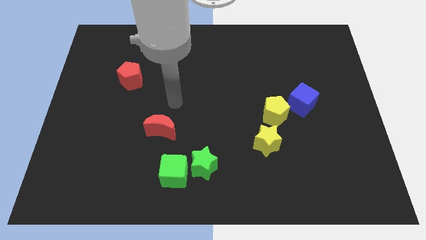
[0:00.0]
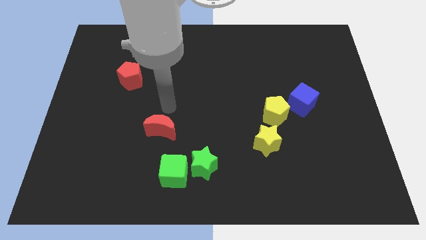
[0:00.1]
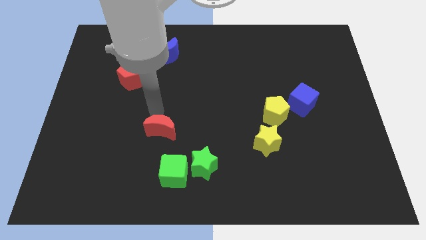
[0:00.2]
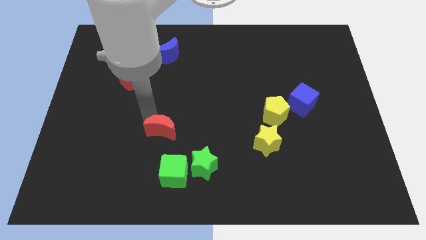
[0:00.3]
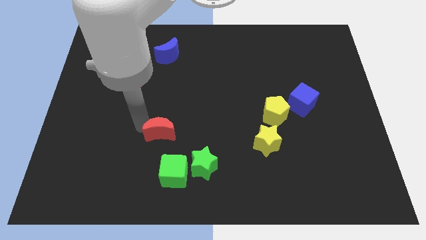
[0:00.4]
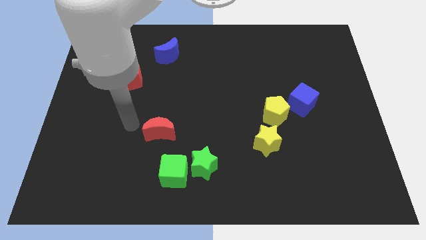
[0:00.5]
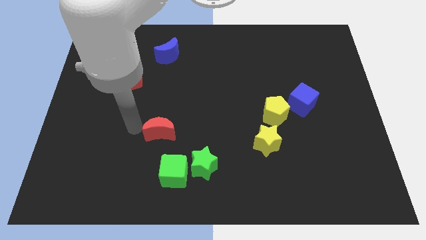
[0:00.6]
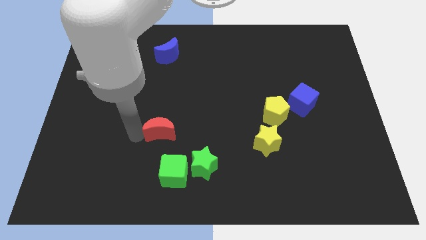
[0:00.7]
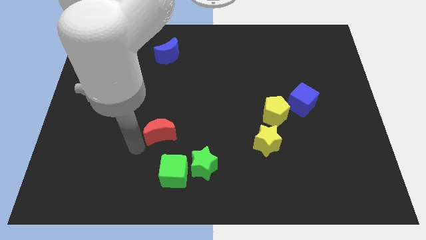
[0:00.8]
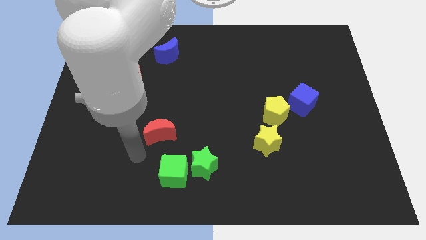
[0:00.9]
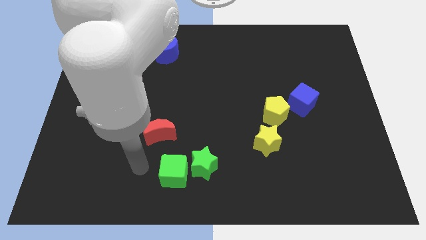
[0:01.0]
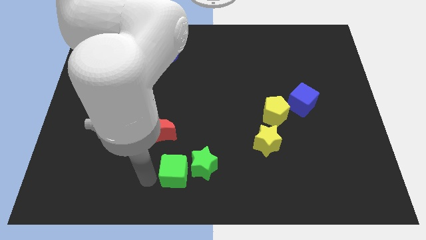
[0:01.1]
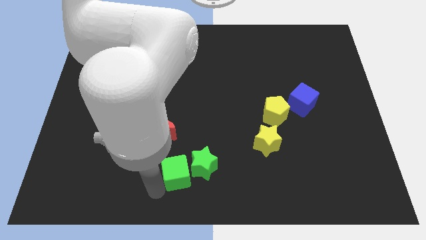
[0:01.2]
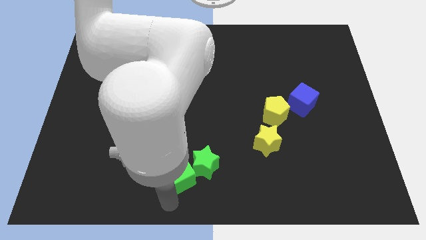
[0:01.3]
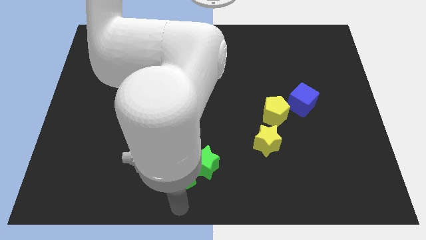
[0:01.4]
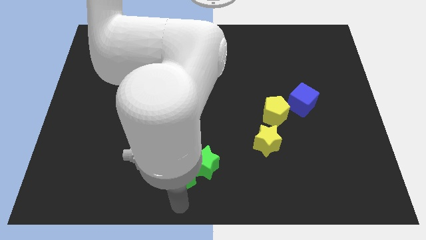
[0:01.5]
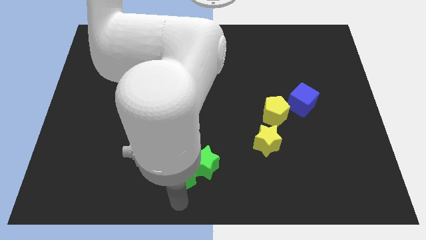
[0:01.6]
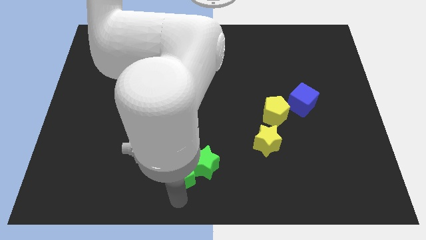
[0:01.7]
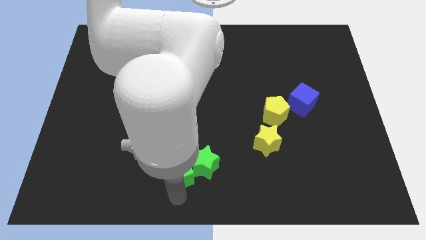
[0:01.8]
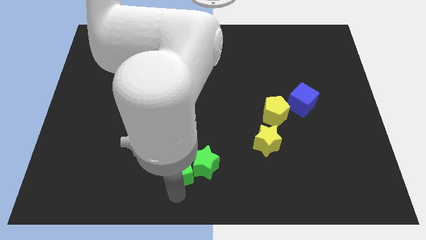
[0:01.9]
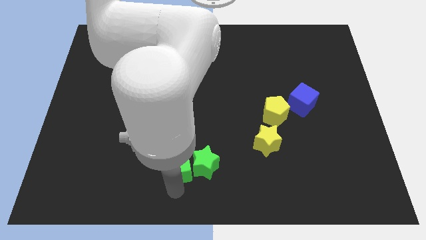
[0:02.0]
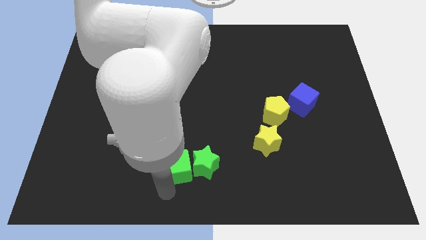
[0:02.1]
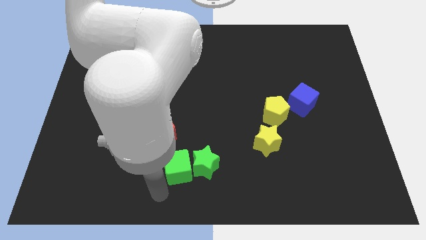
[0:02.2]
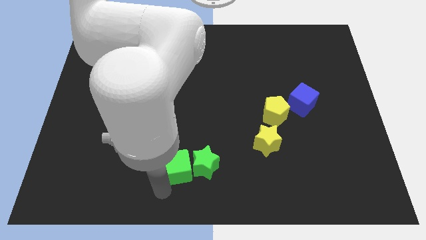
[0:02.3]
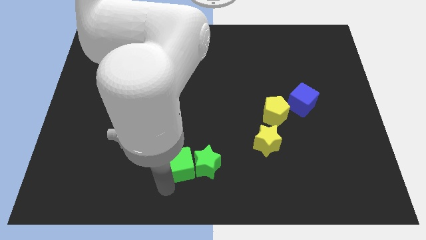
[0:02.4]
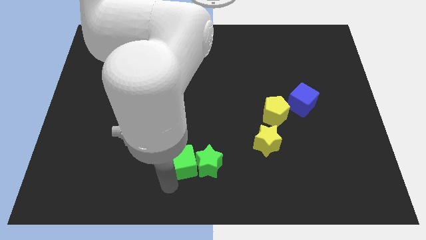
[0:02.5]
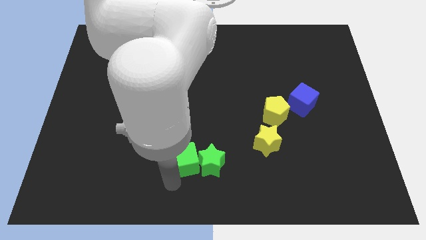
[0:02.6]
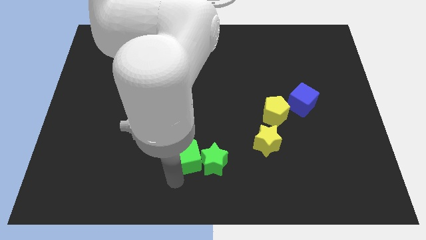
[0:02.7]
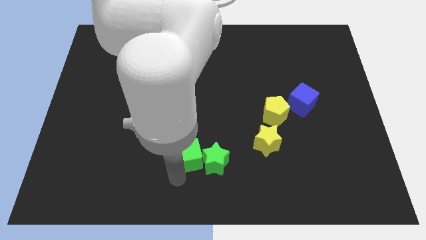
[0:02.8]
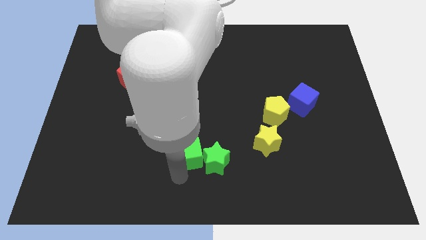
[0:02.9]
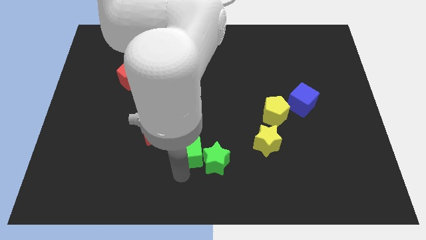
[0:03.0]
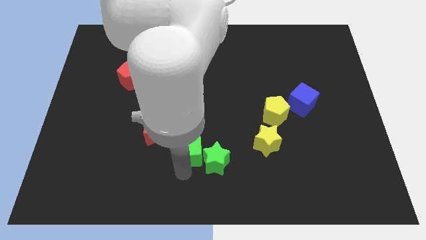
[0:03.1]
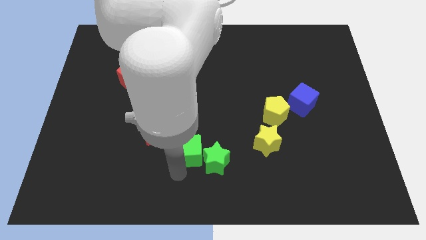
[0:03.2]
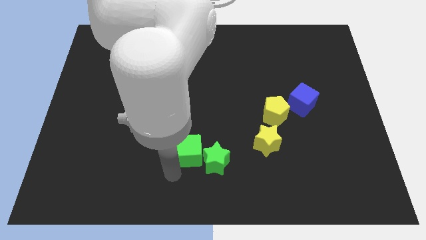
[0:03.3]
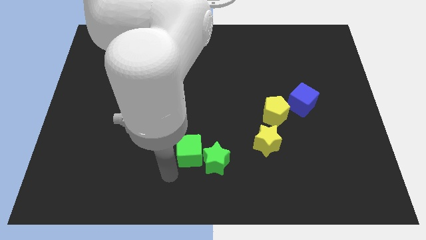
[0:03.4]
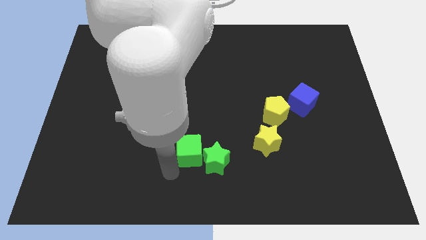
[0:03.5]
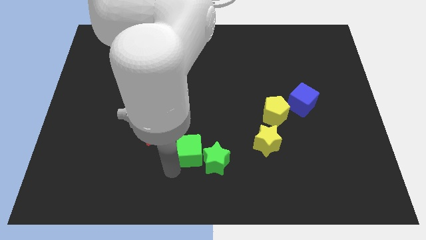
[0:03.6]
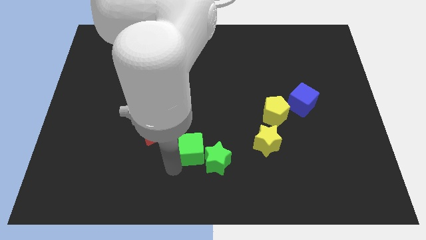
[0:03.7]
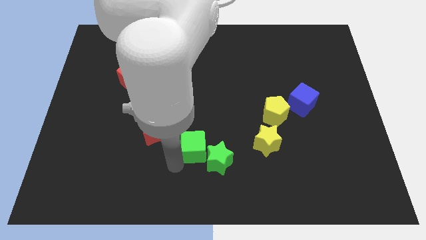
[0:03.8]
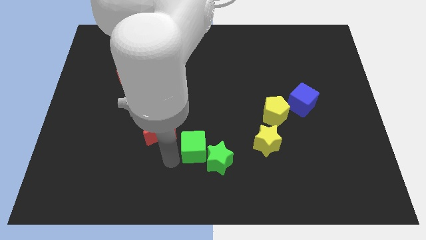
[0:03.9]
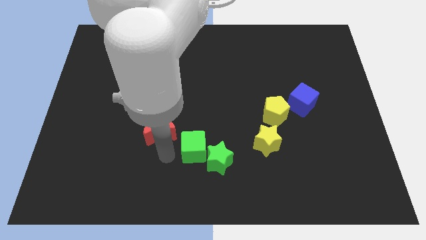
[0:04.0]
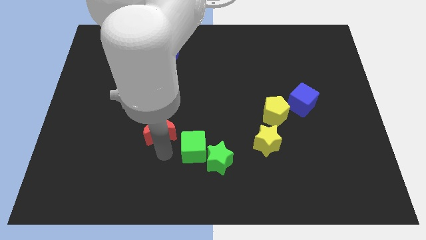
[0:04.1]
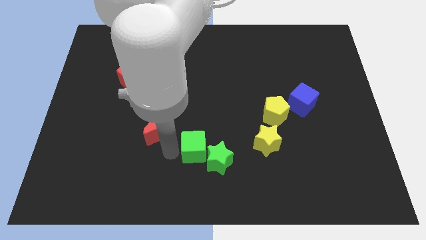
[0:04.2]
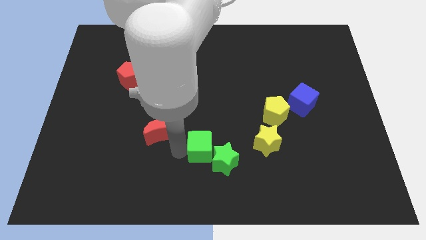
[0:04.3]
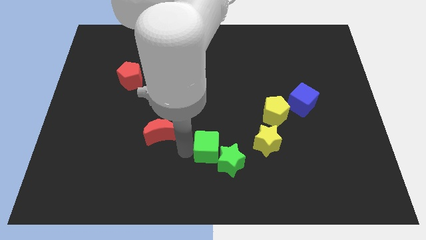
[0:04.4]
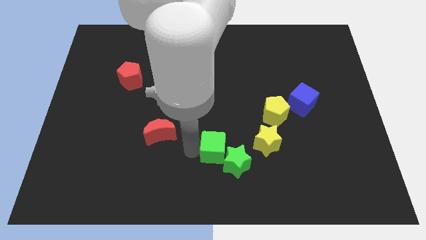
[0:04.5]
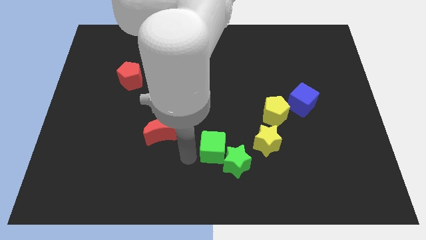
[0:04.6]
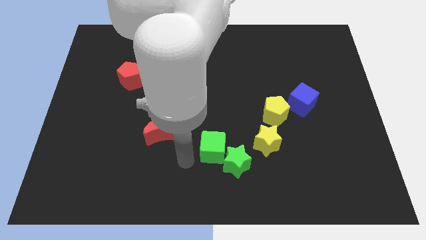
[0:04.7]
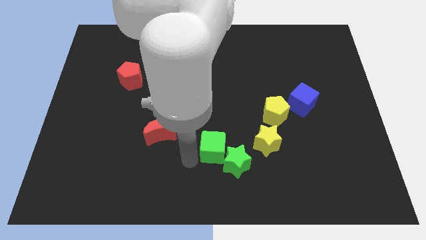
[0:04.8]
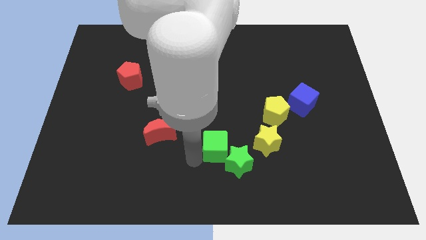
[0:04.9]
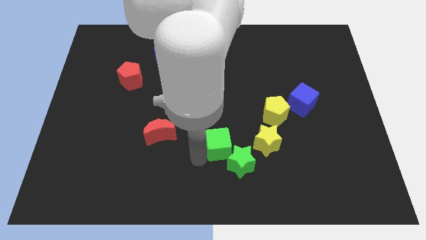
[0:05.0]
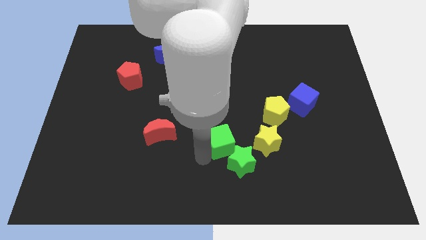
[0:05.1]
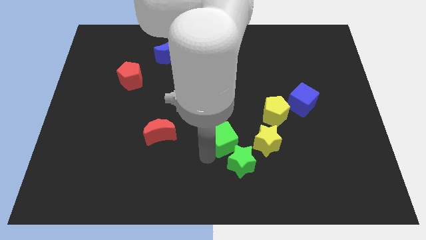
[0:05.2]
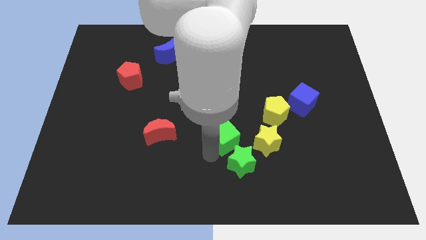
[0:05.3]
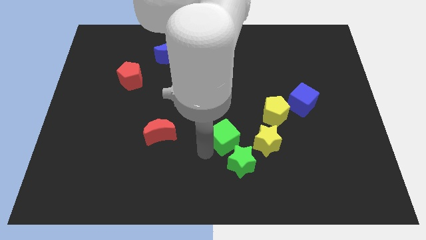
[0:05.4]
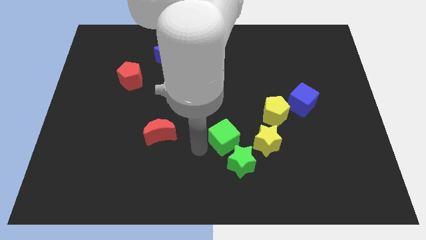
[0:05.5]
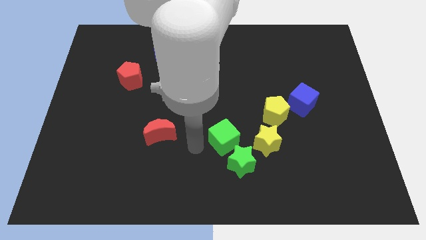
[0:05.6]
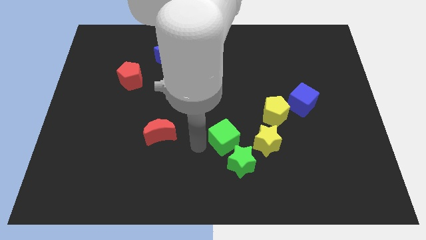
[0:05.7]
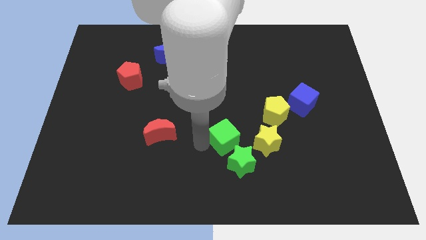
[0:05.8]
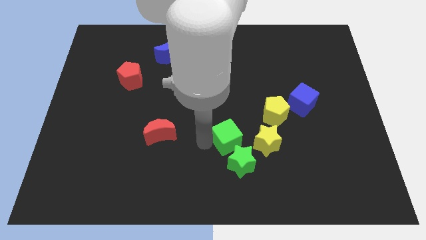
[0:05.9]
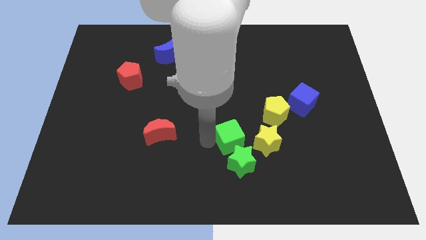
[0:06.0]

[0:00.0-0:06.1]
move the green cube diagonally down and to the left of the yellow pentagon

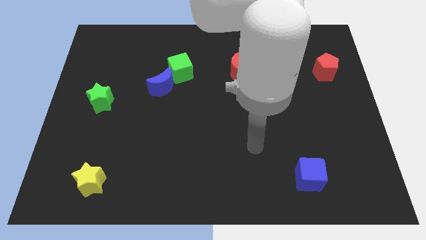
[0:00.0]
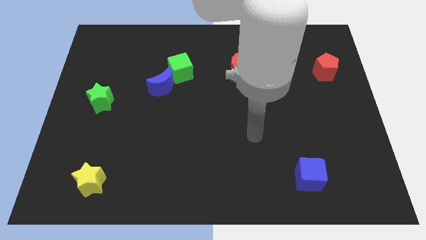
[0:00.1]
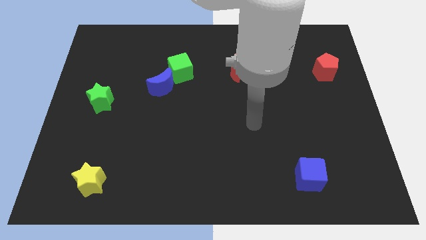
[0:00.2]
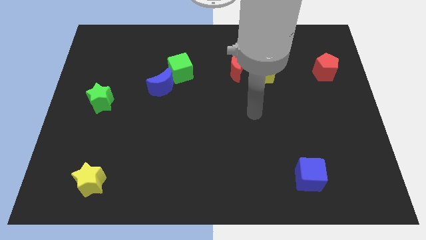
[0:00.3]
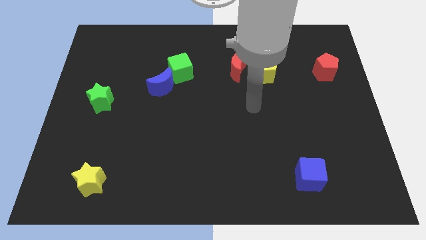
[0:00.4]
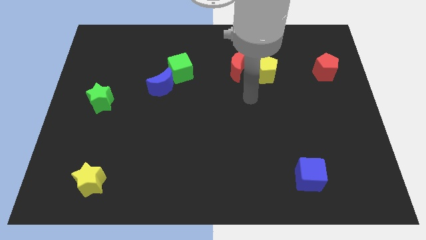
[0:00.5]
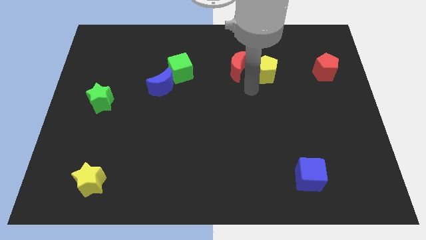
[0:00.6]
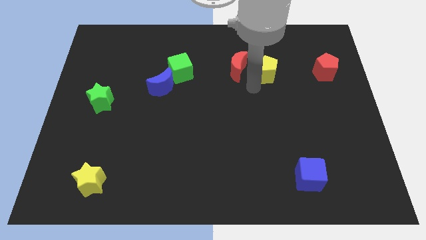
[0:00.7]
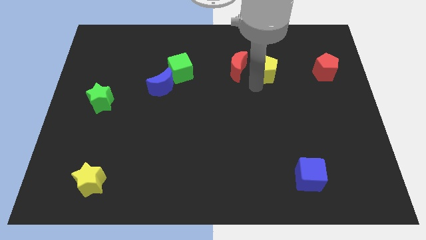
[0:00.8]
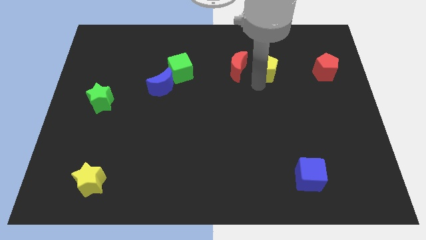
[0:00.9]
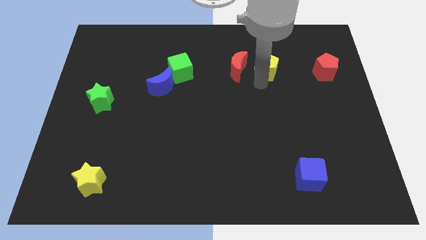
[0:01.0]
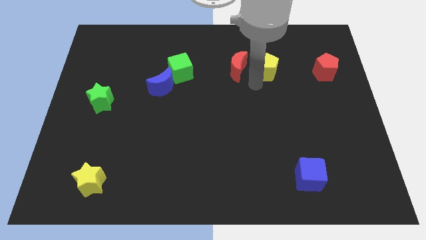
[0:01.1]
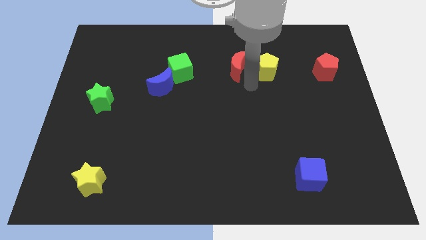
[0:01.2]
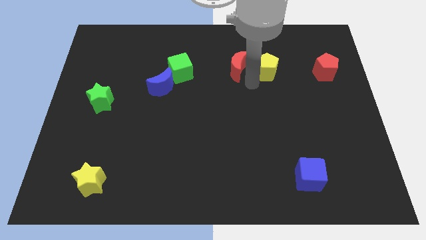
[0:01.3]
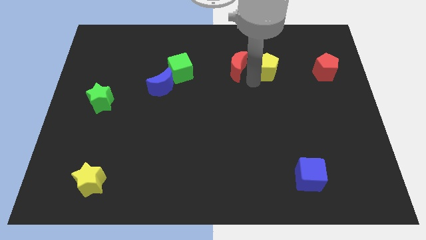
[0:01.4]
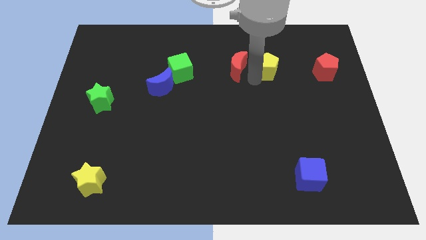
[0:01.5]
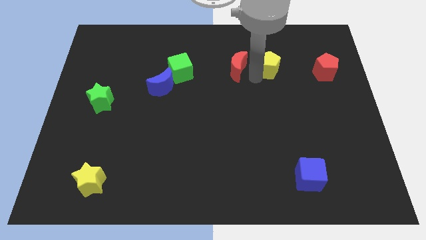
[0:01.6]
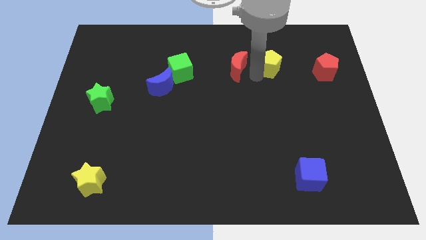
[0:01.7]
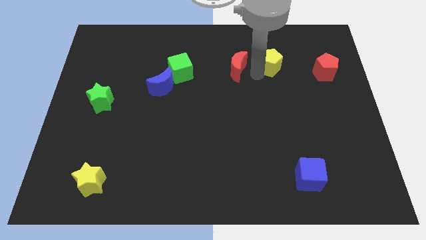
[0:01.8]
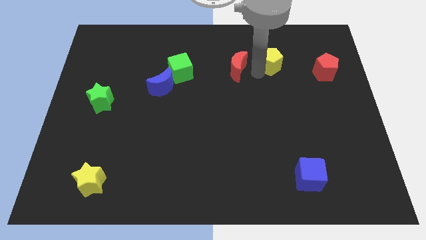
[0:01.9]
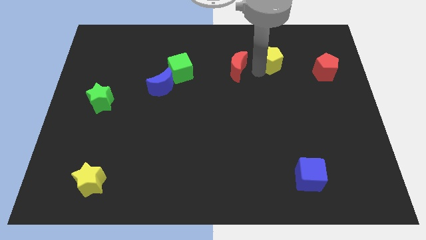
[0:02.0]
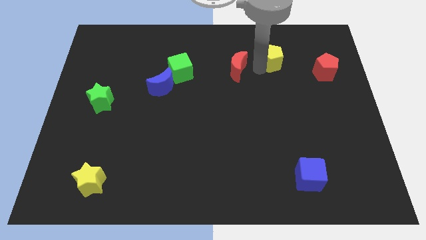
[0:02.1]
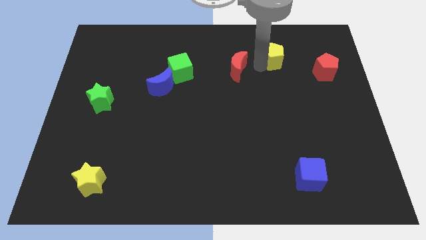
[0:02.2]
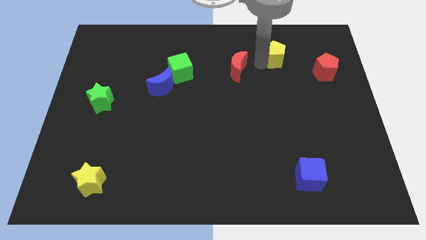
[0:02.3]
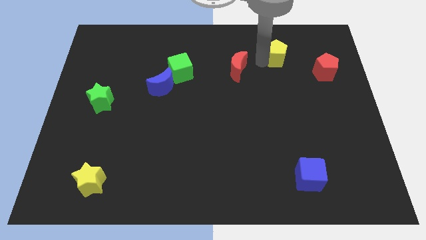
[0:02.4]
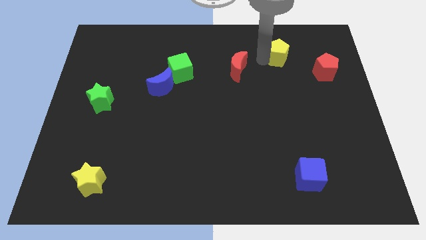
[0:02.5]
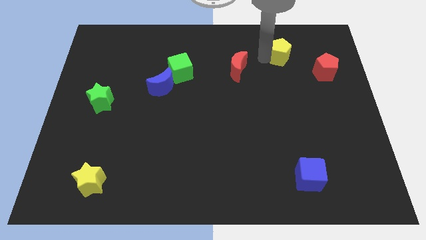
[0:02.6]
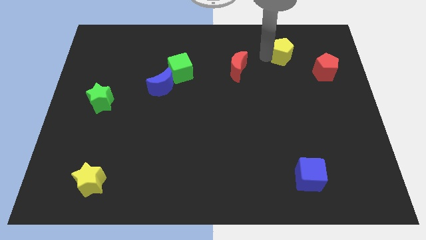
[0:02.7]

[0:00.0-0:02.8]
put the yellow pentagon to the top left of the red pentagon
